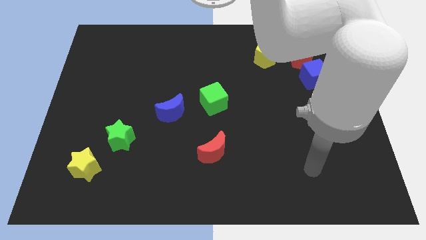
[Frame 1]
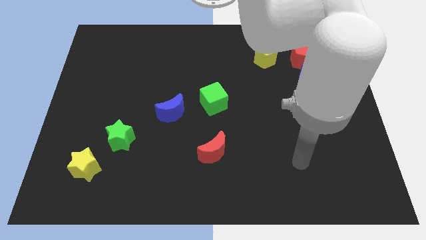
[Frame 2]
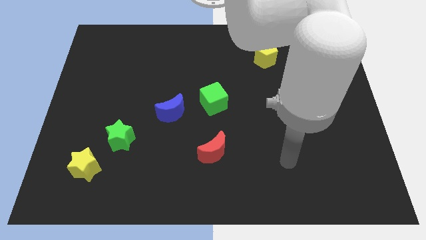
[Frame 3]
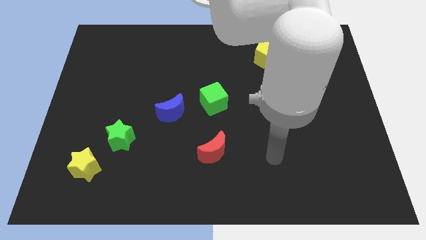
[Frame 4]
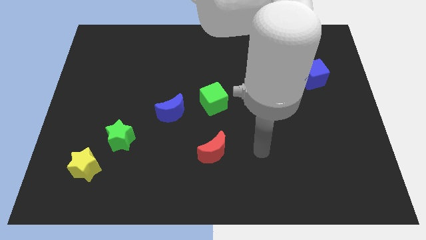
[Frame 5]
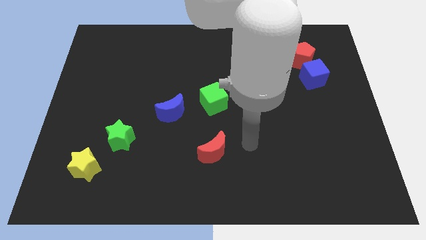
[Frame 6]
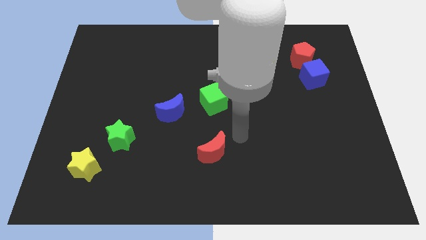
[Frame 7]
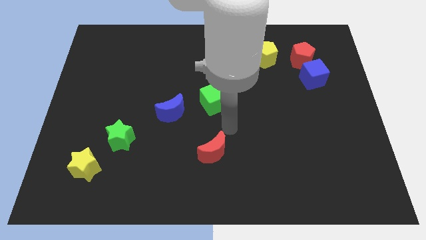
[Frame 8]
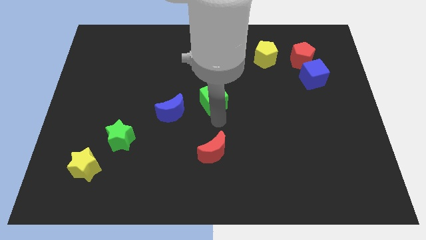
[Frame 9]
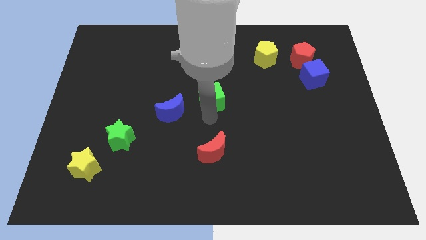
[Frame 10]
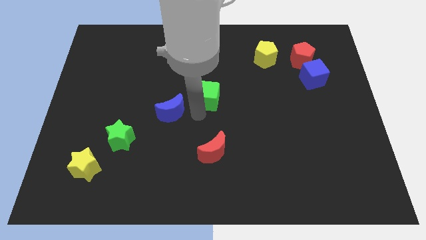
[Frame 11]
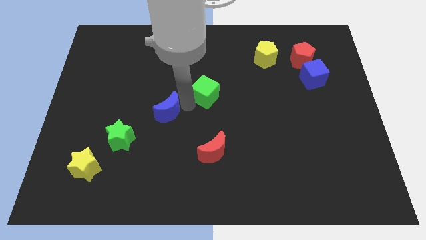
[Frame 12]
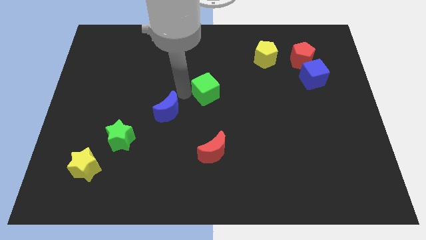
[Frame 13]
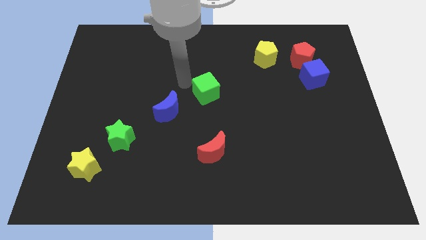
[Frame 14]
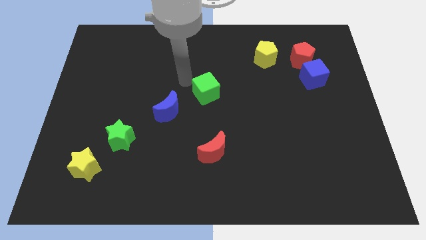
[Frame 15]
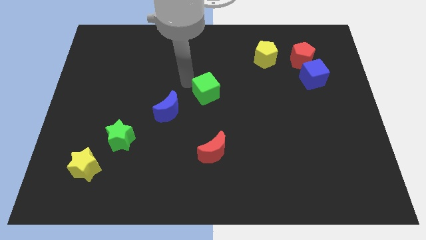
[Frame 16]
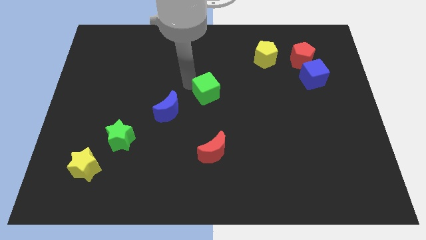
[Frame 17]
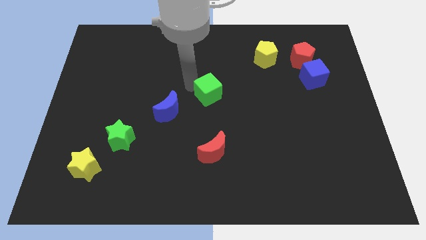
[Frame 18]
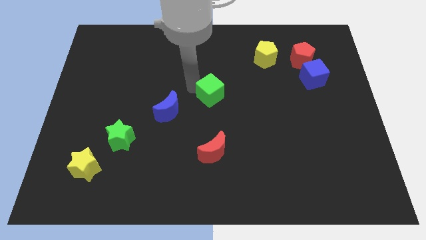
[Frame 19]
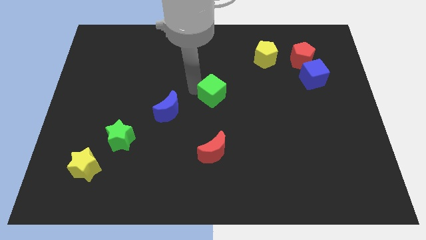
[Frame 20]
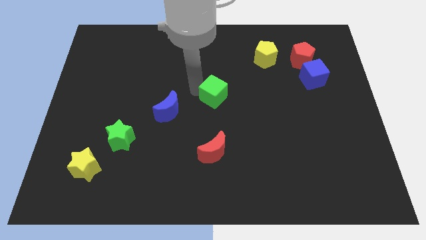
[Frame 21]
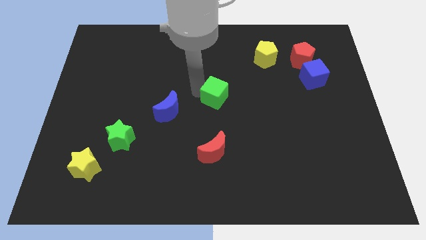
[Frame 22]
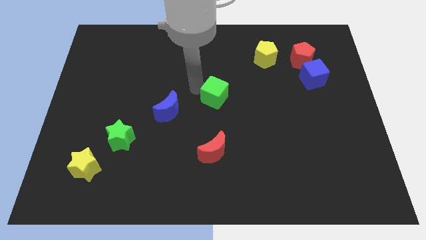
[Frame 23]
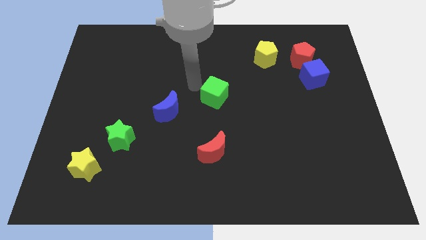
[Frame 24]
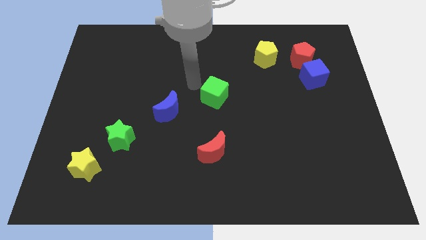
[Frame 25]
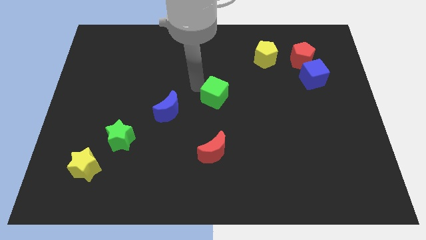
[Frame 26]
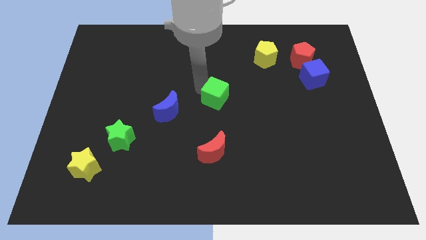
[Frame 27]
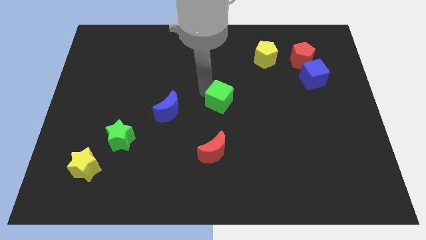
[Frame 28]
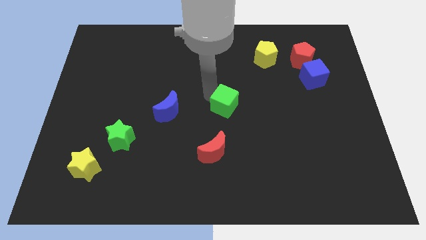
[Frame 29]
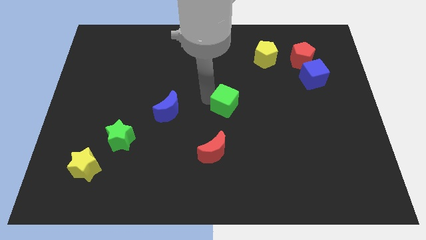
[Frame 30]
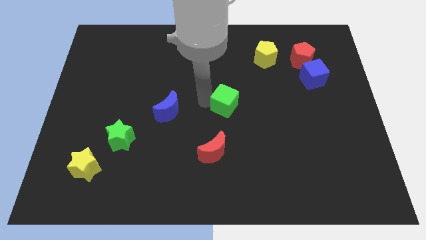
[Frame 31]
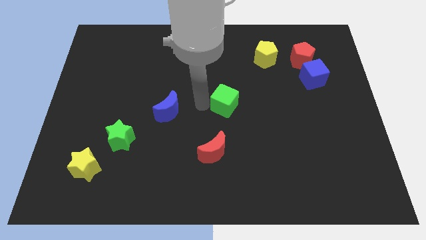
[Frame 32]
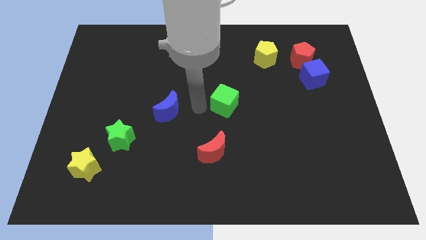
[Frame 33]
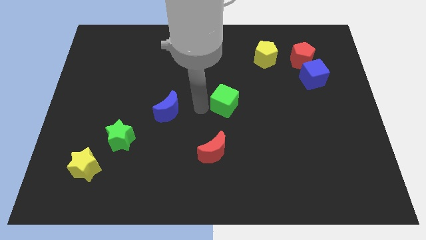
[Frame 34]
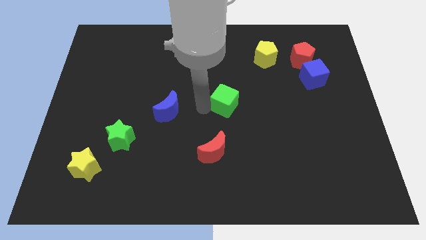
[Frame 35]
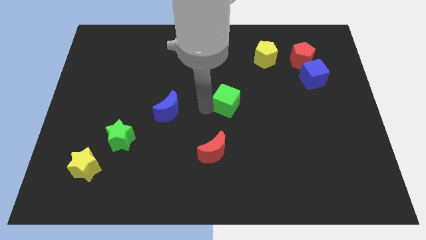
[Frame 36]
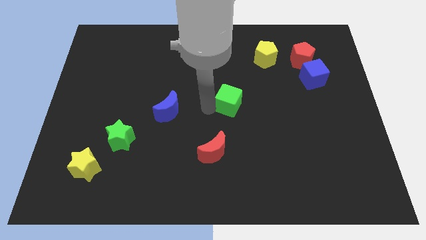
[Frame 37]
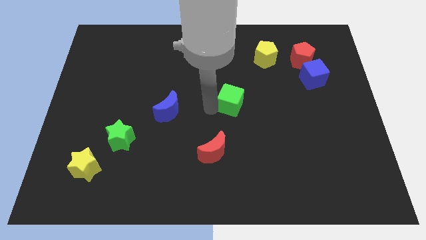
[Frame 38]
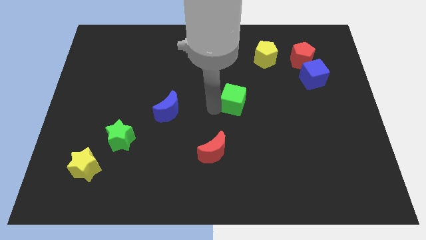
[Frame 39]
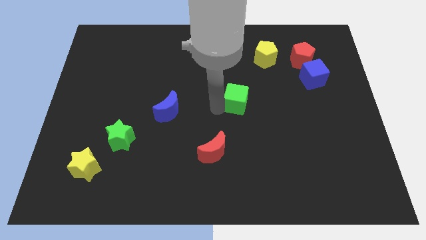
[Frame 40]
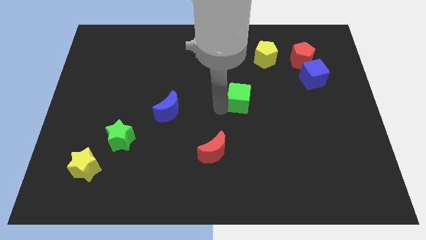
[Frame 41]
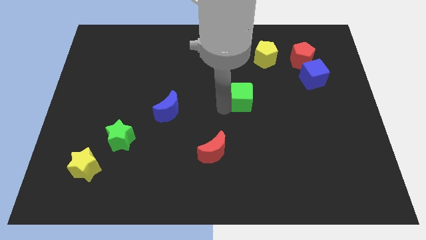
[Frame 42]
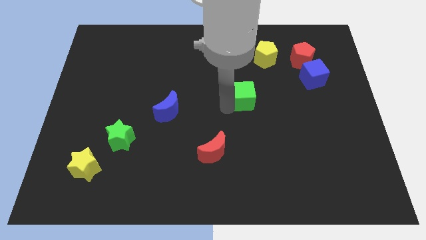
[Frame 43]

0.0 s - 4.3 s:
move the green cube somewhat to the right

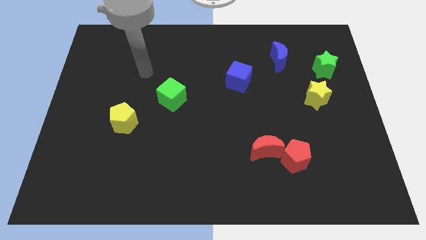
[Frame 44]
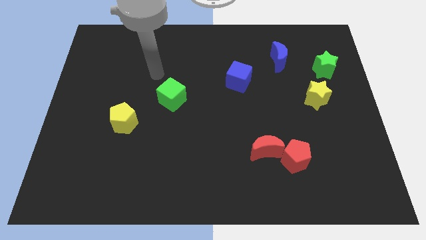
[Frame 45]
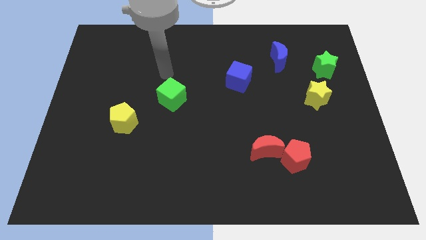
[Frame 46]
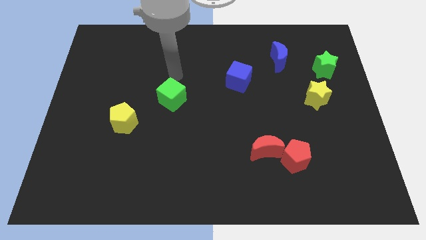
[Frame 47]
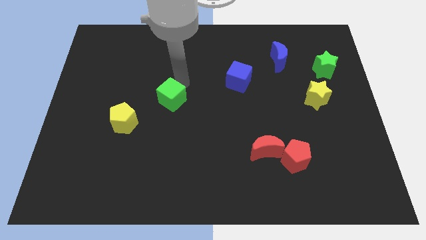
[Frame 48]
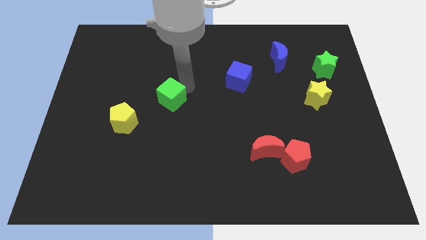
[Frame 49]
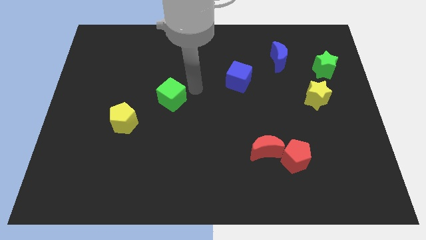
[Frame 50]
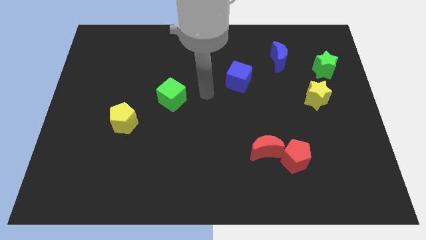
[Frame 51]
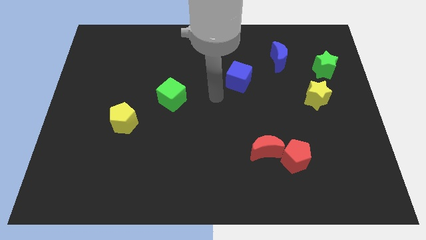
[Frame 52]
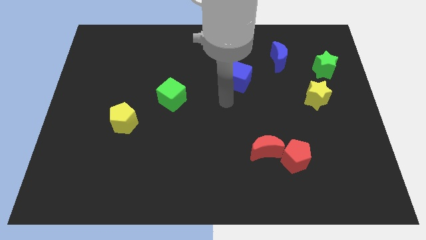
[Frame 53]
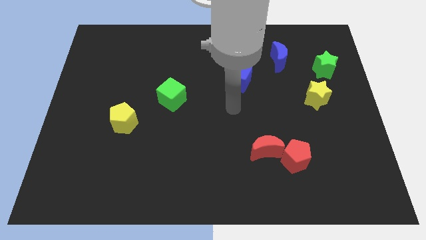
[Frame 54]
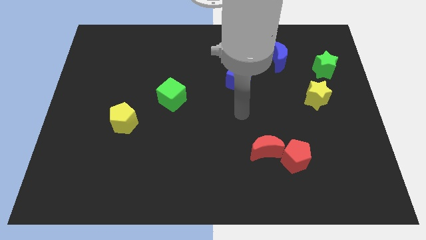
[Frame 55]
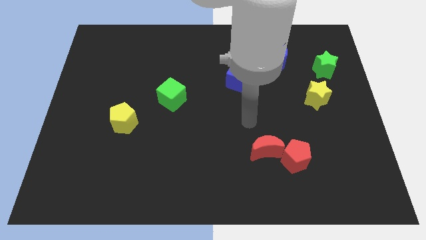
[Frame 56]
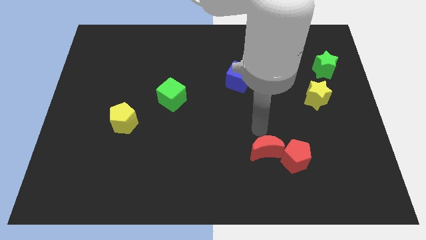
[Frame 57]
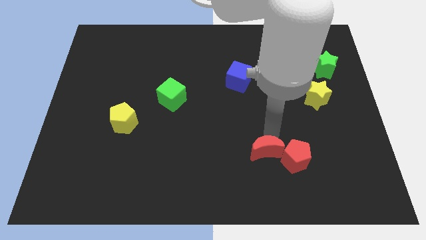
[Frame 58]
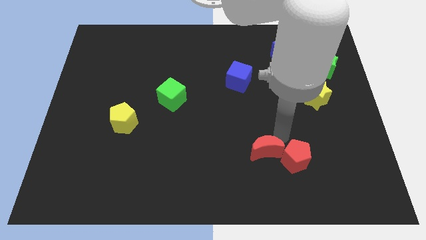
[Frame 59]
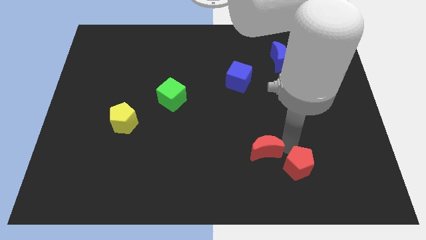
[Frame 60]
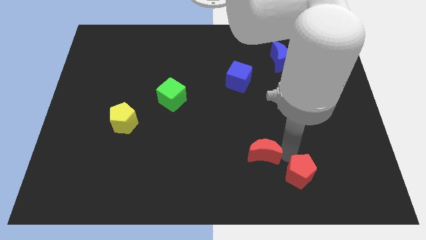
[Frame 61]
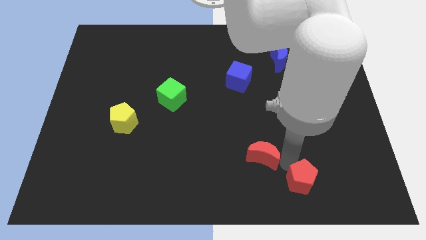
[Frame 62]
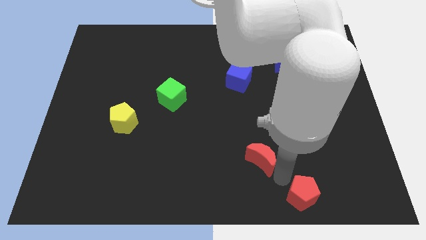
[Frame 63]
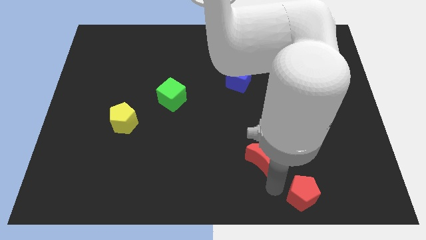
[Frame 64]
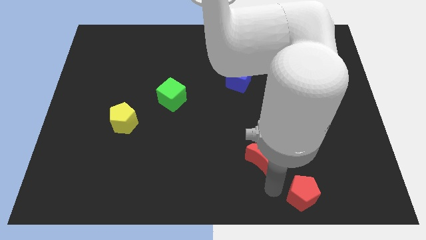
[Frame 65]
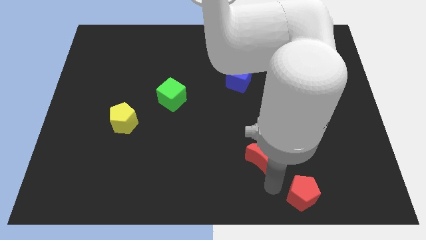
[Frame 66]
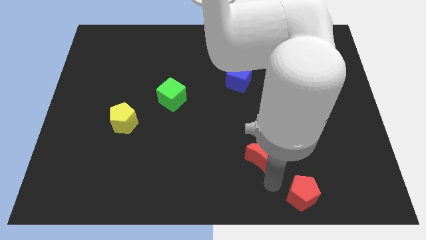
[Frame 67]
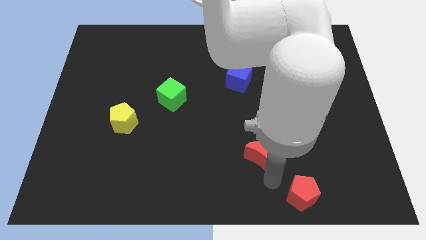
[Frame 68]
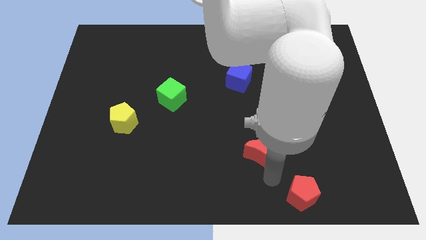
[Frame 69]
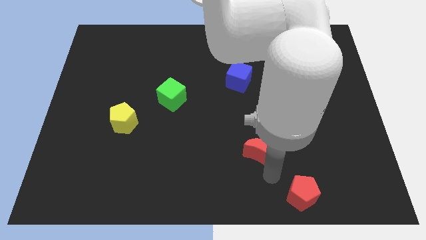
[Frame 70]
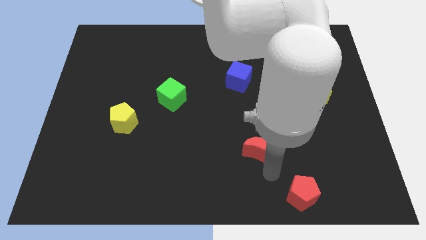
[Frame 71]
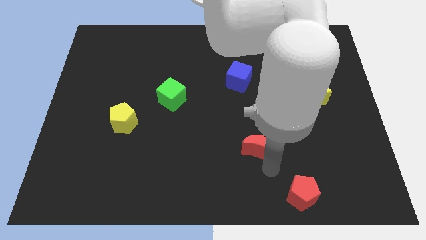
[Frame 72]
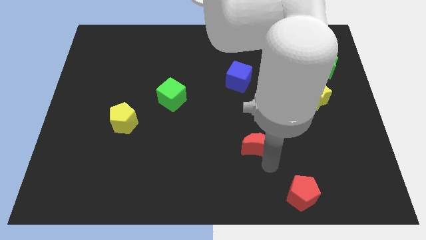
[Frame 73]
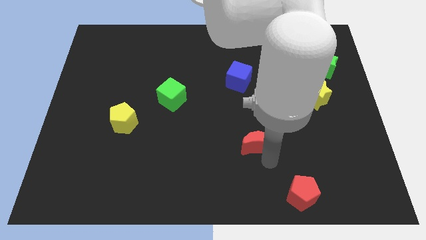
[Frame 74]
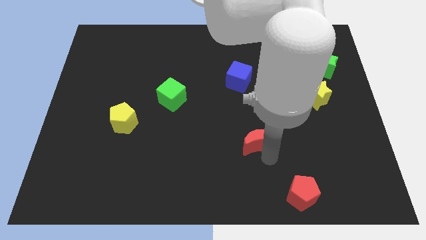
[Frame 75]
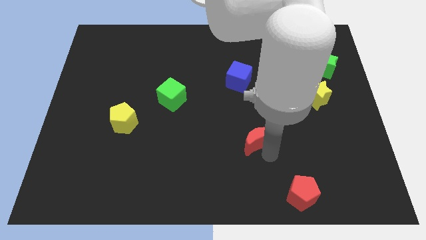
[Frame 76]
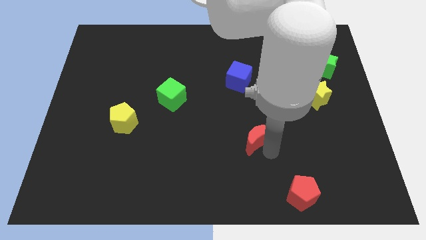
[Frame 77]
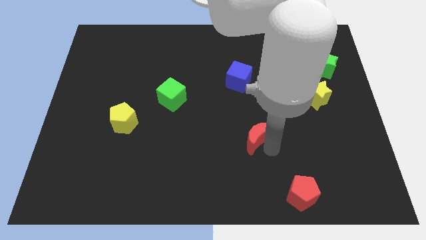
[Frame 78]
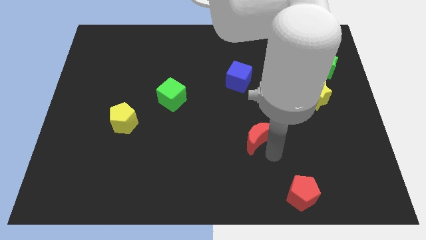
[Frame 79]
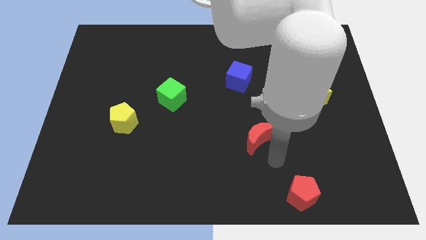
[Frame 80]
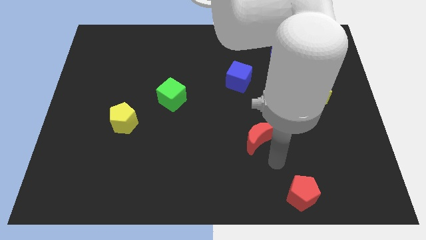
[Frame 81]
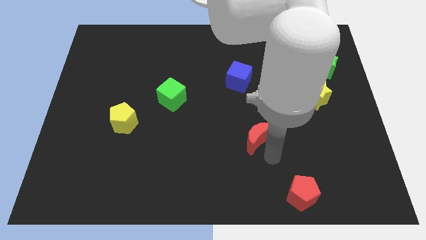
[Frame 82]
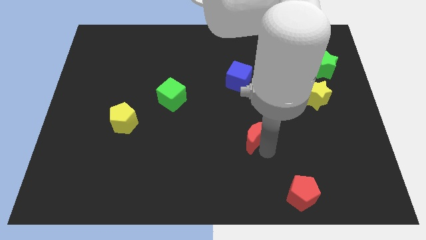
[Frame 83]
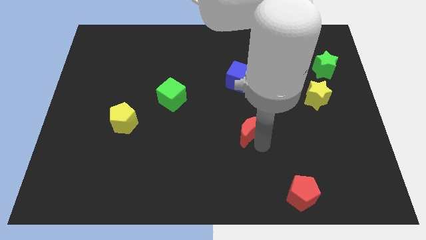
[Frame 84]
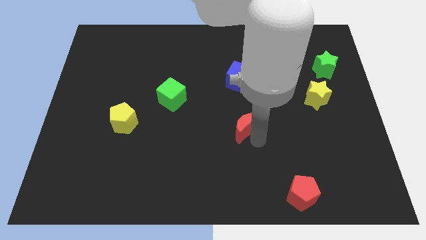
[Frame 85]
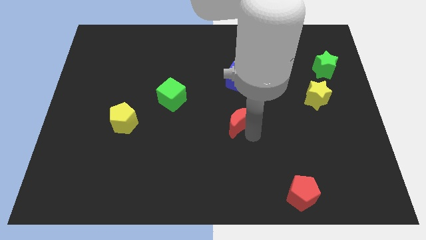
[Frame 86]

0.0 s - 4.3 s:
move the red moon somewhat up and left diagonally
